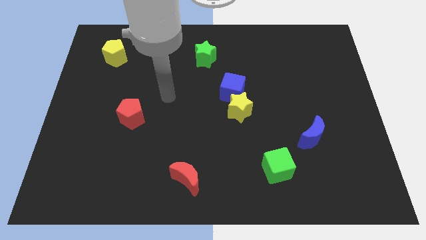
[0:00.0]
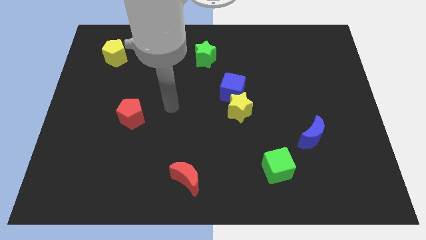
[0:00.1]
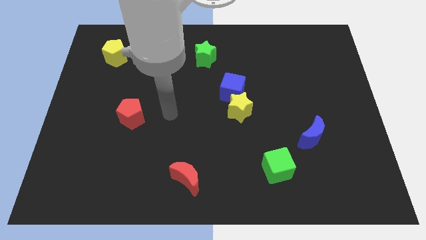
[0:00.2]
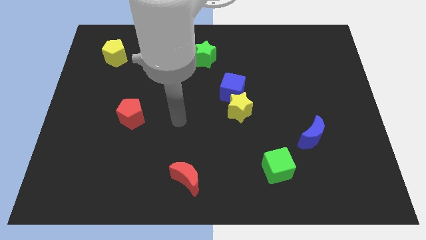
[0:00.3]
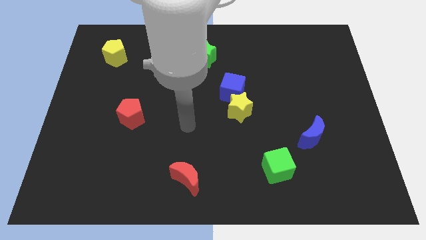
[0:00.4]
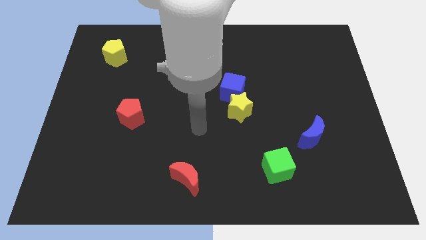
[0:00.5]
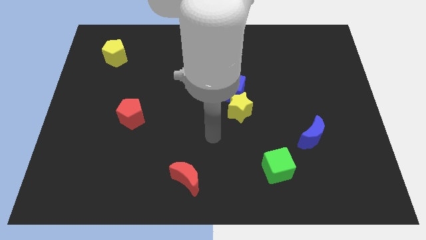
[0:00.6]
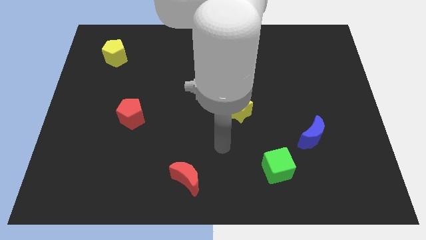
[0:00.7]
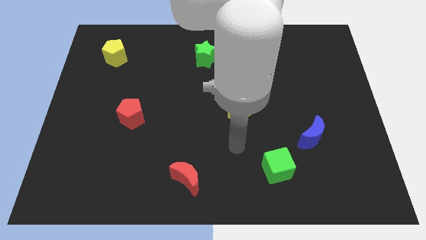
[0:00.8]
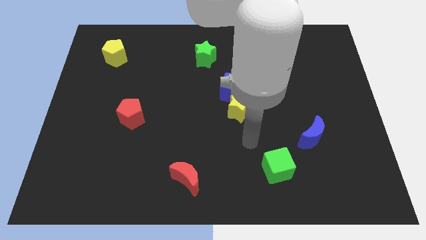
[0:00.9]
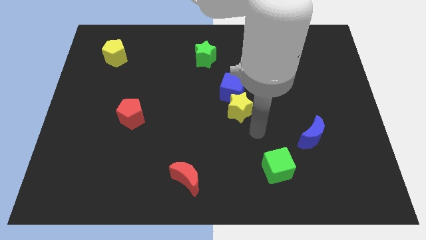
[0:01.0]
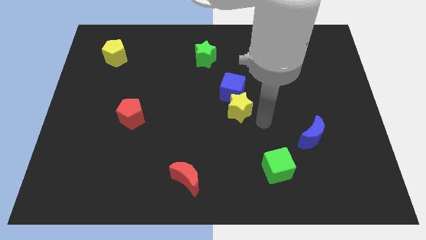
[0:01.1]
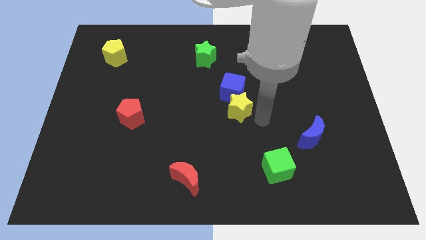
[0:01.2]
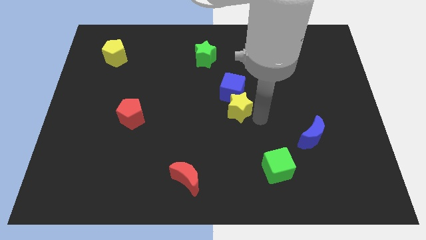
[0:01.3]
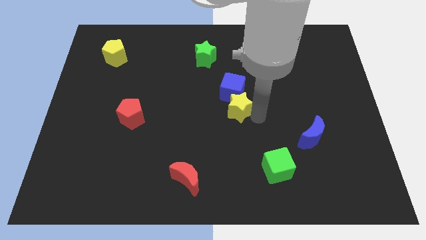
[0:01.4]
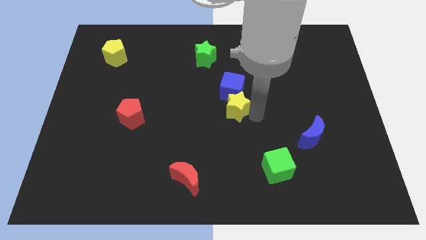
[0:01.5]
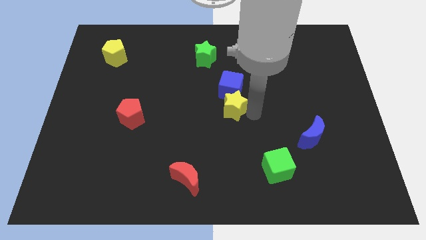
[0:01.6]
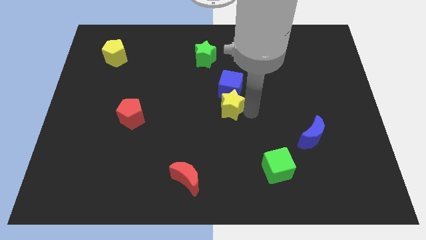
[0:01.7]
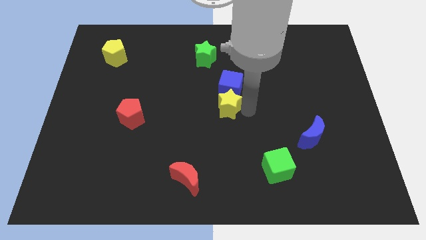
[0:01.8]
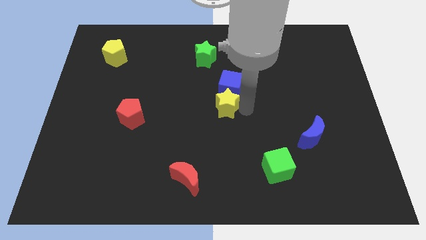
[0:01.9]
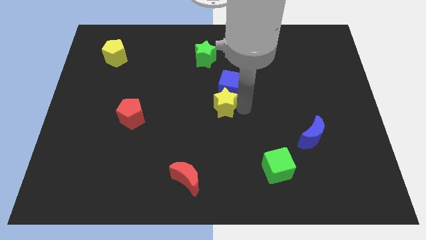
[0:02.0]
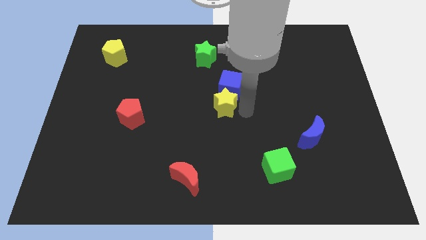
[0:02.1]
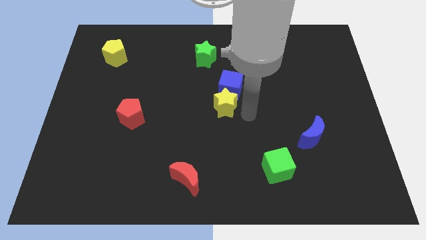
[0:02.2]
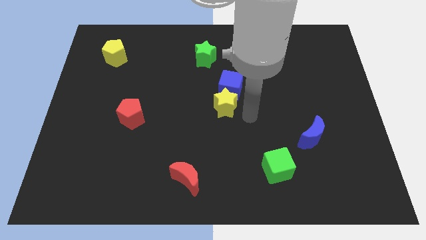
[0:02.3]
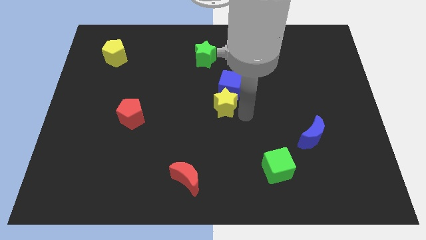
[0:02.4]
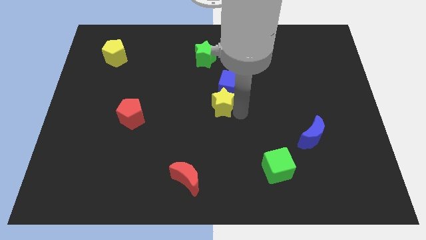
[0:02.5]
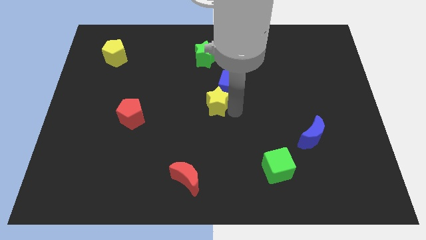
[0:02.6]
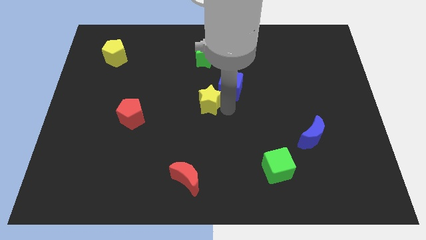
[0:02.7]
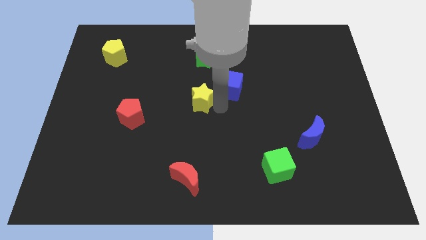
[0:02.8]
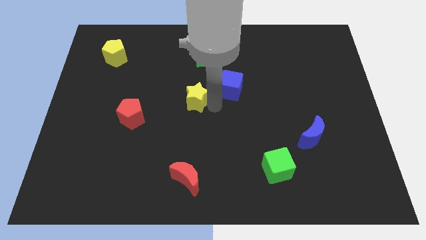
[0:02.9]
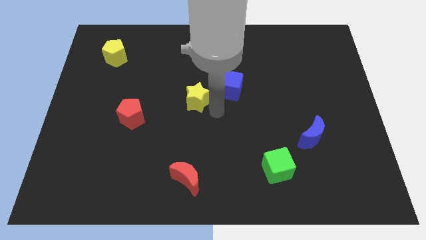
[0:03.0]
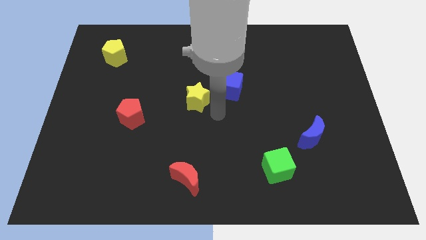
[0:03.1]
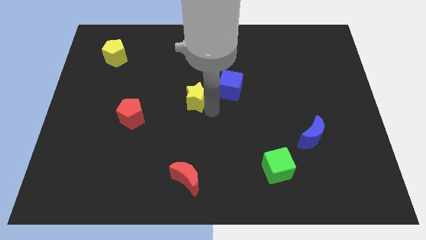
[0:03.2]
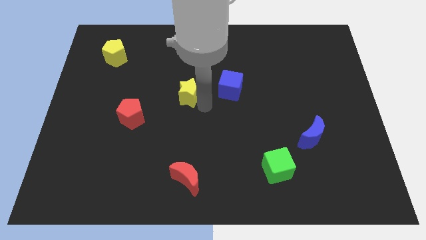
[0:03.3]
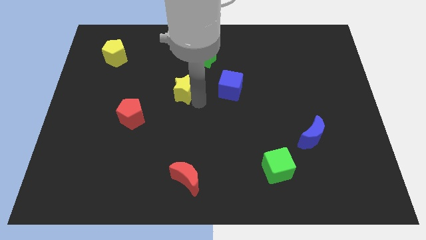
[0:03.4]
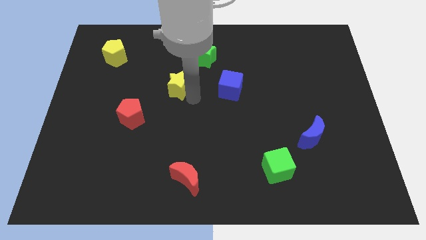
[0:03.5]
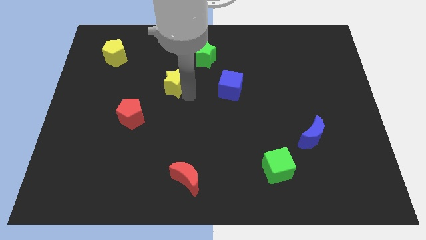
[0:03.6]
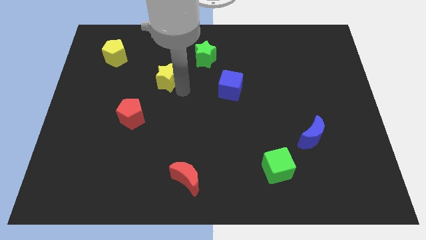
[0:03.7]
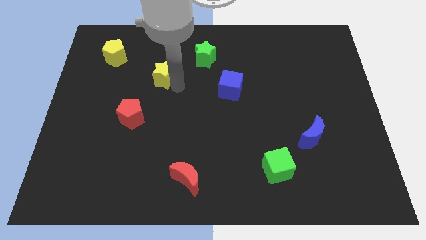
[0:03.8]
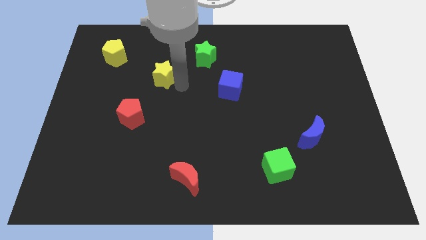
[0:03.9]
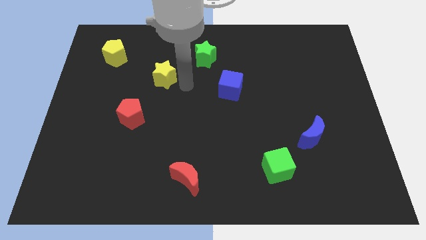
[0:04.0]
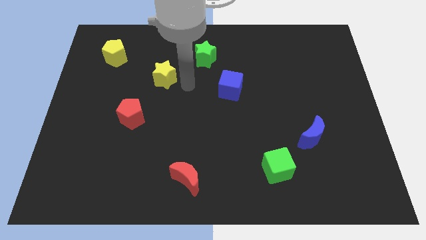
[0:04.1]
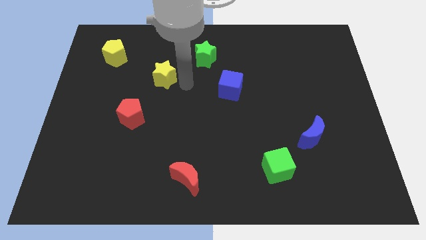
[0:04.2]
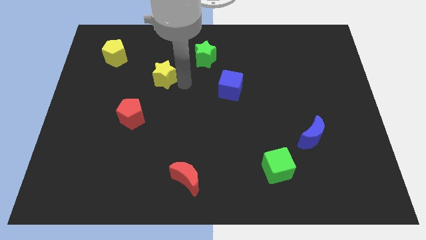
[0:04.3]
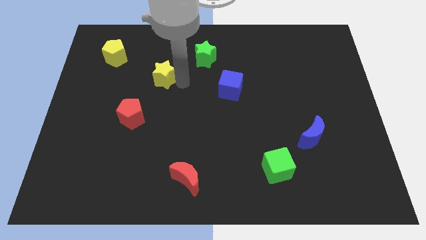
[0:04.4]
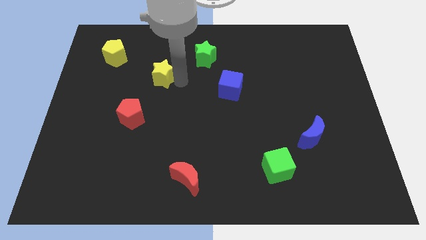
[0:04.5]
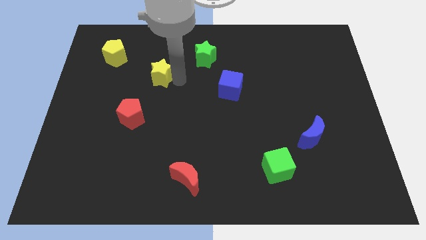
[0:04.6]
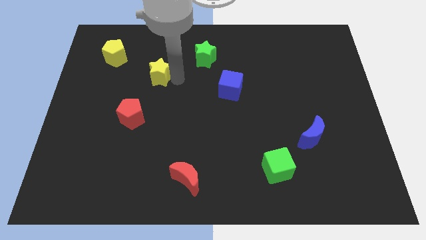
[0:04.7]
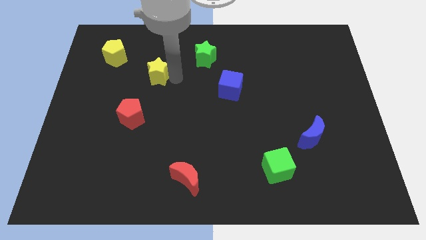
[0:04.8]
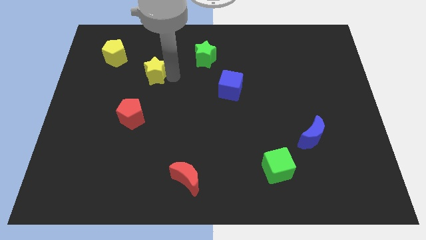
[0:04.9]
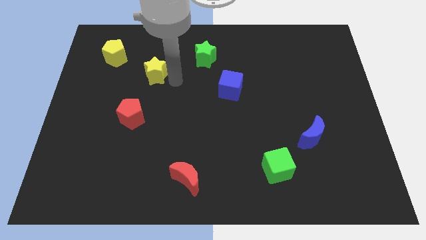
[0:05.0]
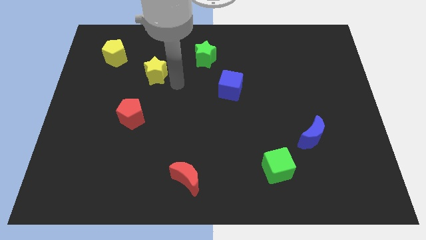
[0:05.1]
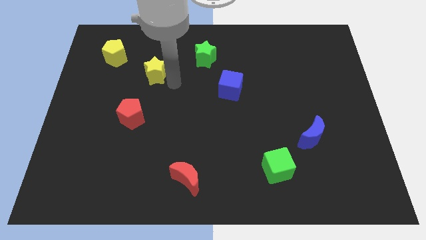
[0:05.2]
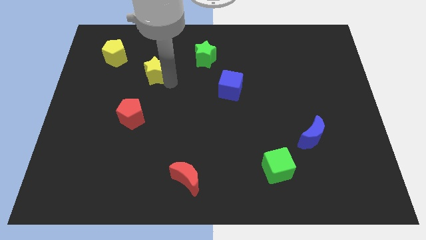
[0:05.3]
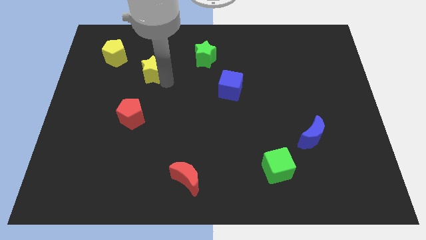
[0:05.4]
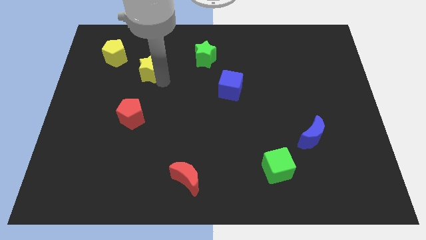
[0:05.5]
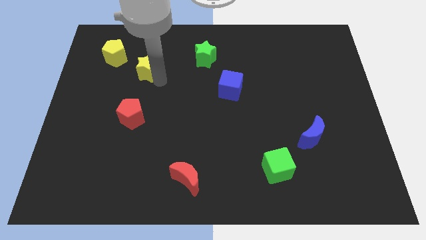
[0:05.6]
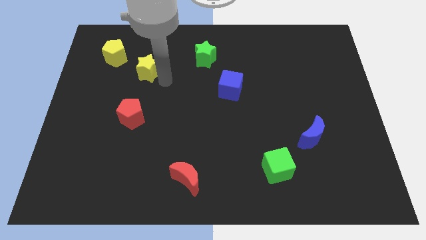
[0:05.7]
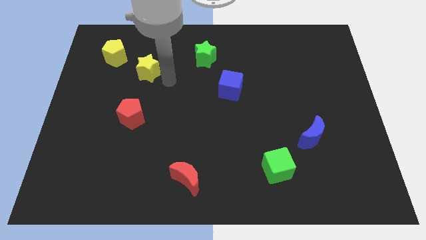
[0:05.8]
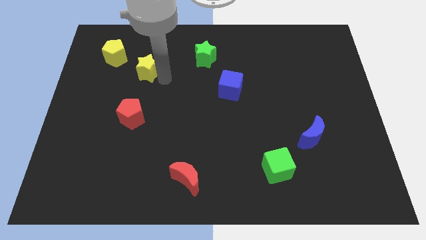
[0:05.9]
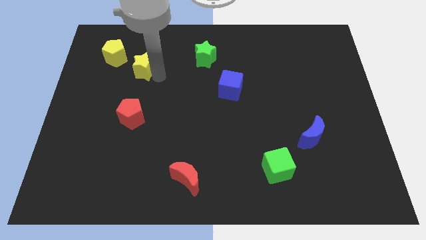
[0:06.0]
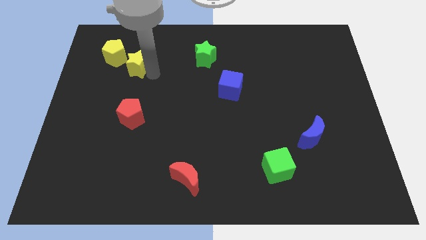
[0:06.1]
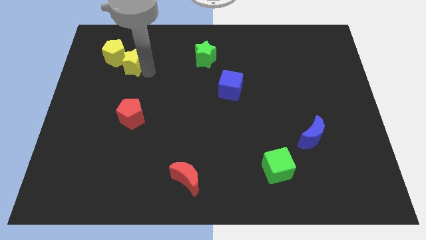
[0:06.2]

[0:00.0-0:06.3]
put the yellow star towards the yellow pentagon

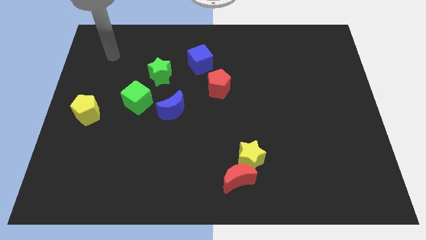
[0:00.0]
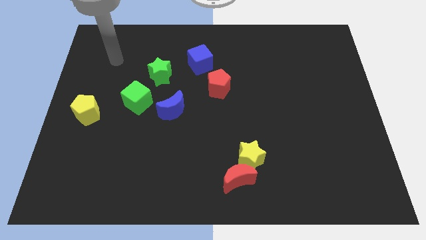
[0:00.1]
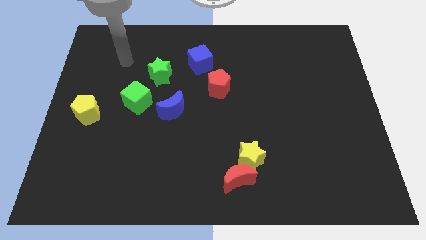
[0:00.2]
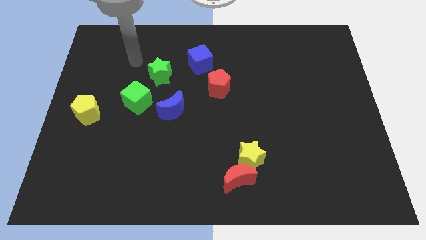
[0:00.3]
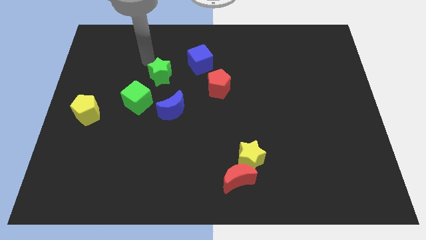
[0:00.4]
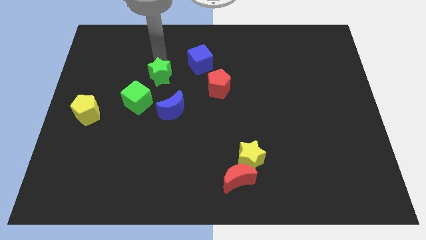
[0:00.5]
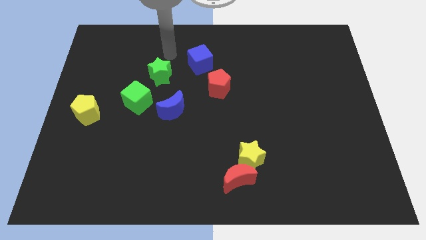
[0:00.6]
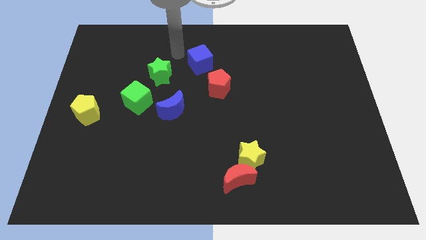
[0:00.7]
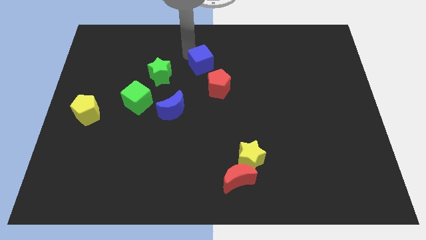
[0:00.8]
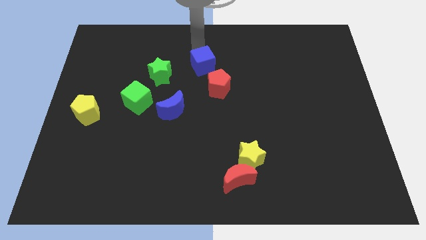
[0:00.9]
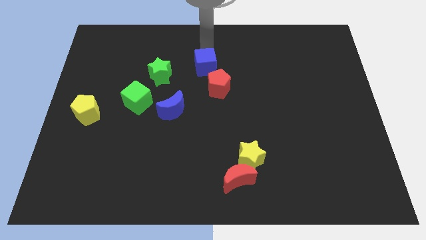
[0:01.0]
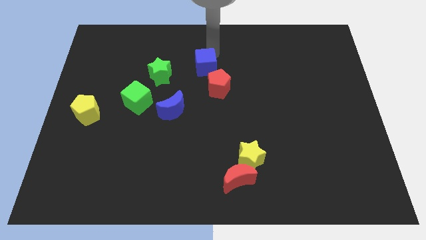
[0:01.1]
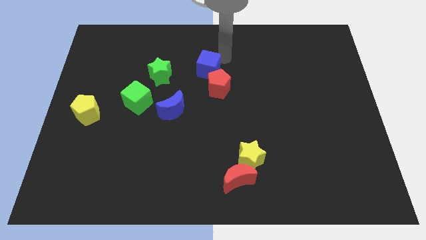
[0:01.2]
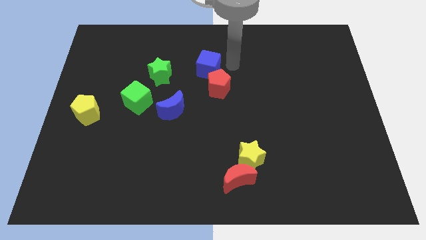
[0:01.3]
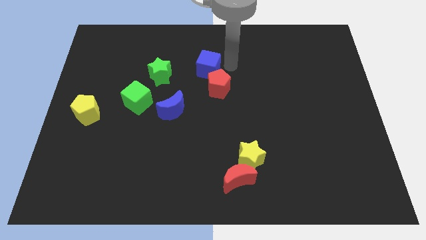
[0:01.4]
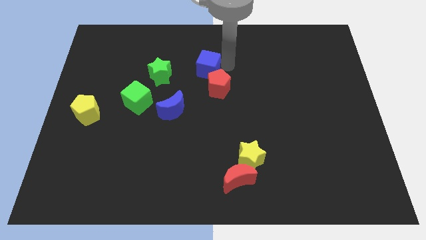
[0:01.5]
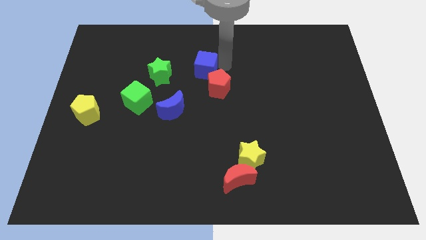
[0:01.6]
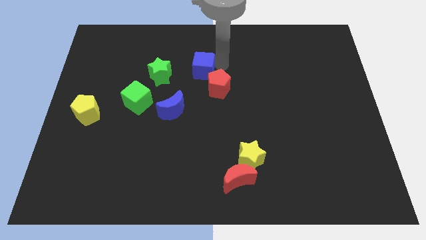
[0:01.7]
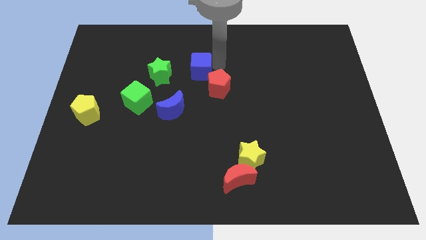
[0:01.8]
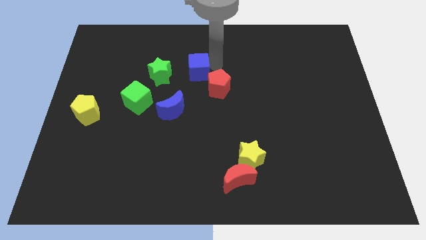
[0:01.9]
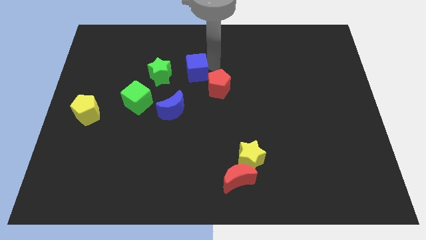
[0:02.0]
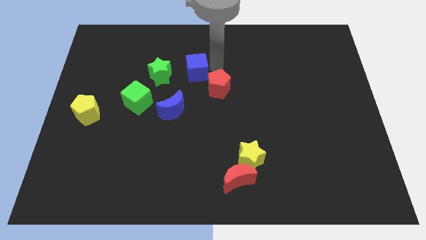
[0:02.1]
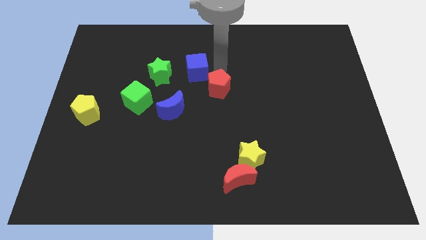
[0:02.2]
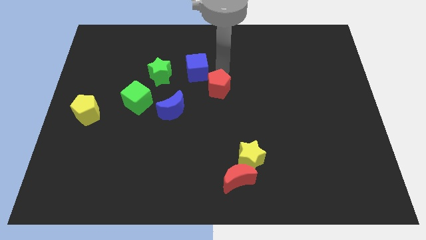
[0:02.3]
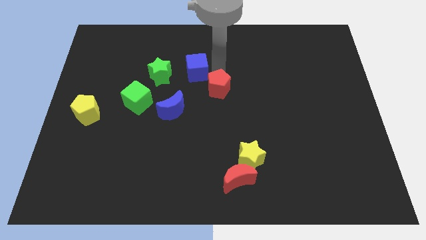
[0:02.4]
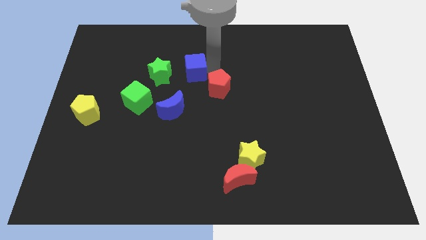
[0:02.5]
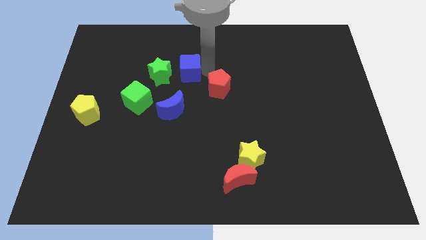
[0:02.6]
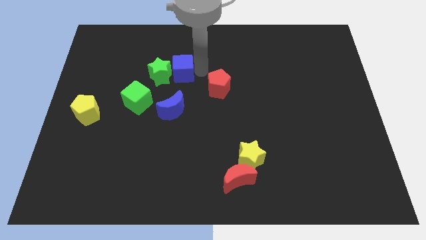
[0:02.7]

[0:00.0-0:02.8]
slide the blue cube towards the green star
